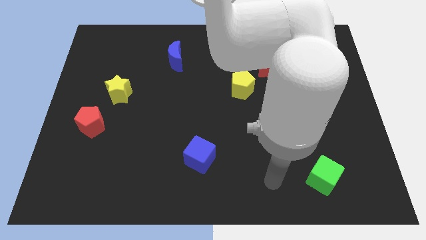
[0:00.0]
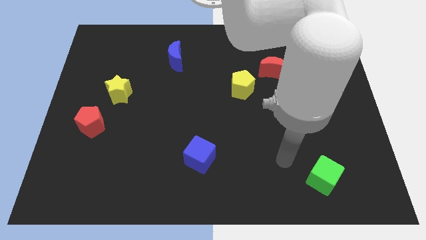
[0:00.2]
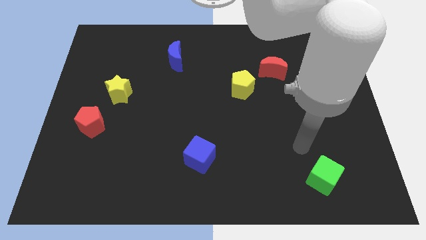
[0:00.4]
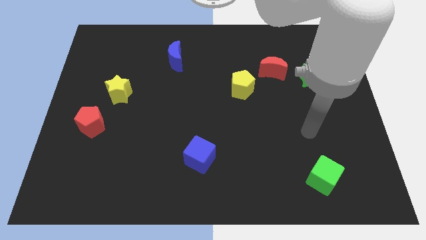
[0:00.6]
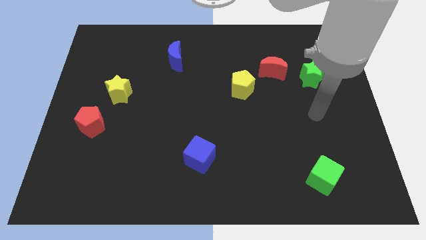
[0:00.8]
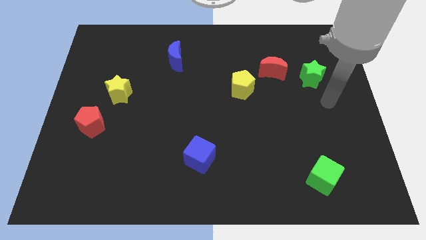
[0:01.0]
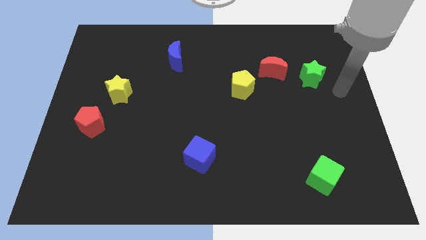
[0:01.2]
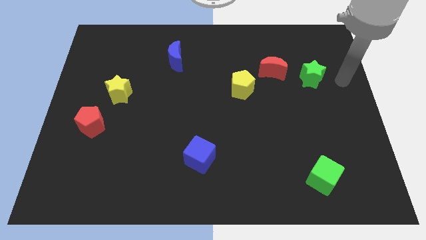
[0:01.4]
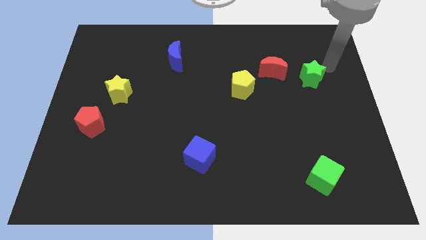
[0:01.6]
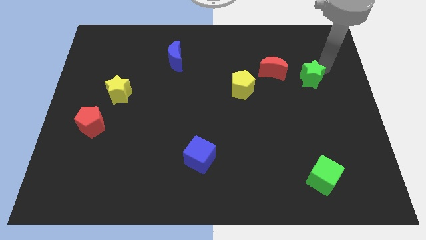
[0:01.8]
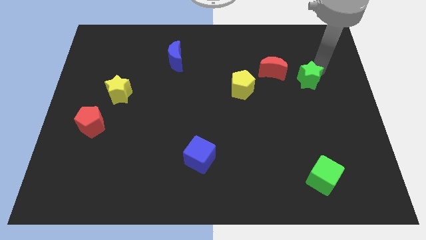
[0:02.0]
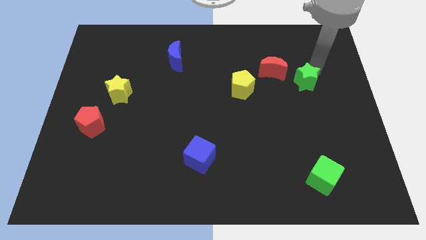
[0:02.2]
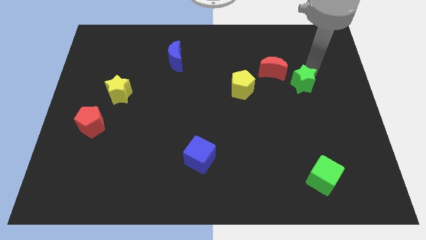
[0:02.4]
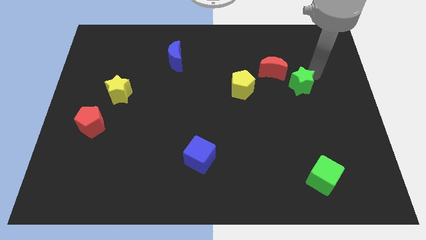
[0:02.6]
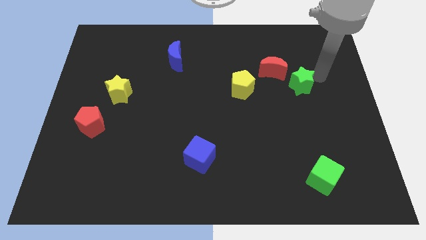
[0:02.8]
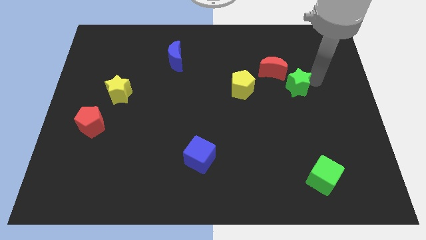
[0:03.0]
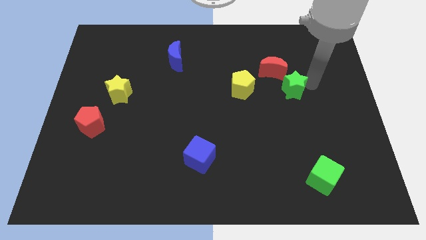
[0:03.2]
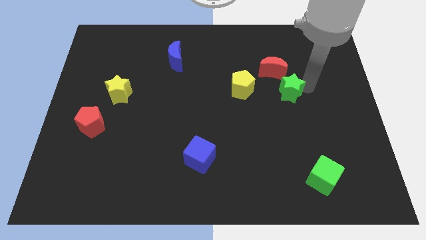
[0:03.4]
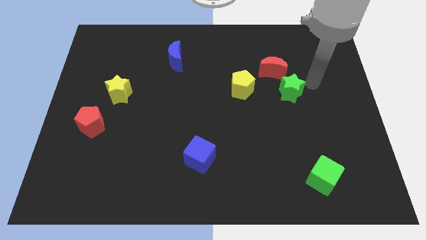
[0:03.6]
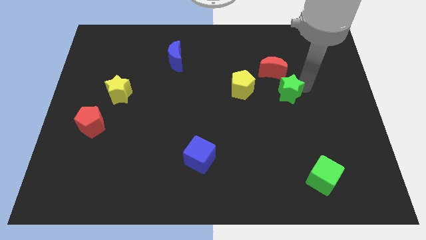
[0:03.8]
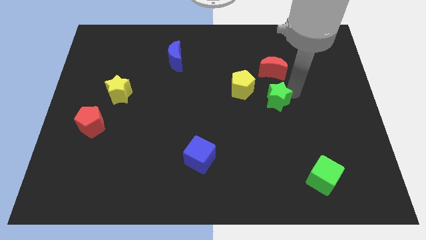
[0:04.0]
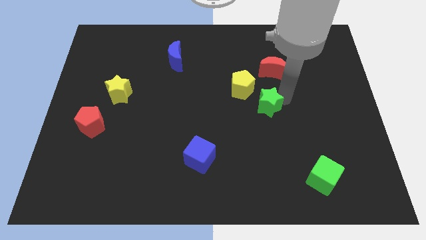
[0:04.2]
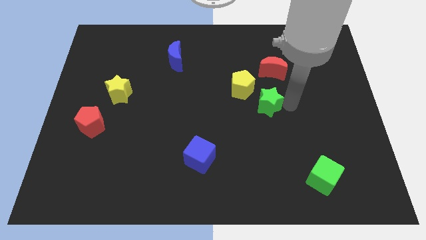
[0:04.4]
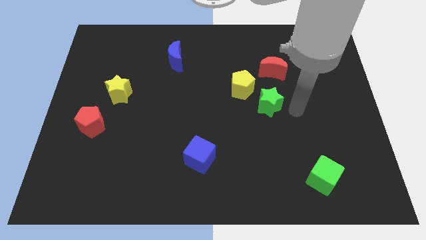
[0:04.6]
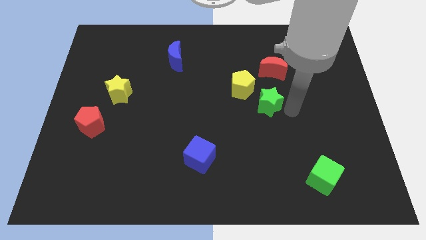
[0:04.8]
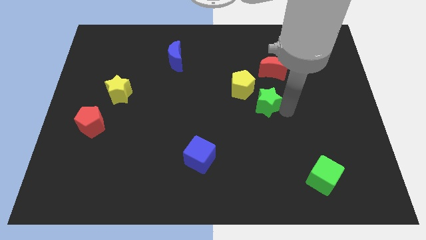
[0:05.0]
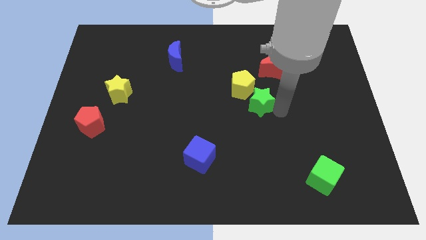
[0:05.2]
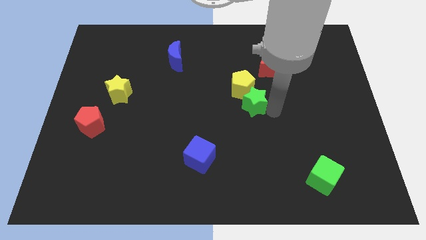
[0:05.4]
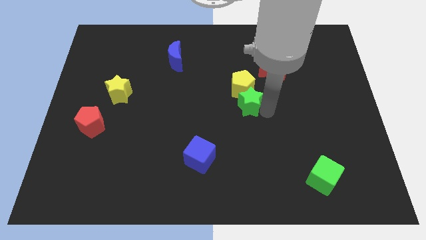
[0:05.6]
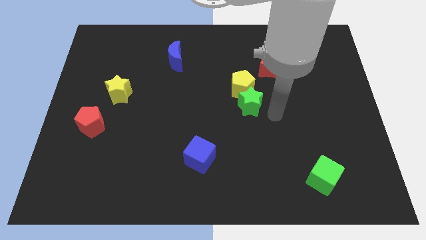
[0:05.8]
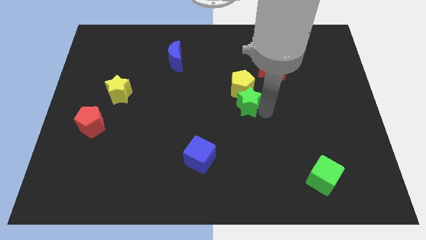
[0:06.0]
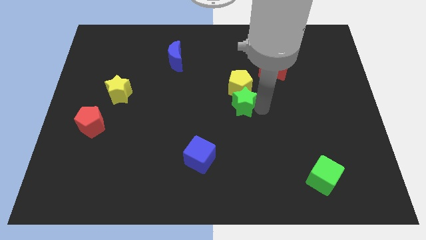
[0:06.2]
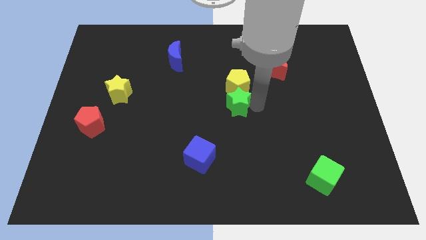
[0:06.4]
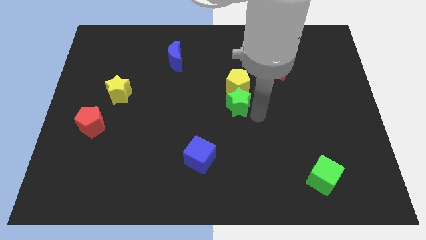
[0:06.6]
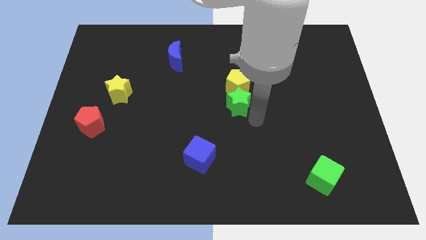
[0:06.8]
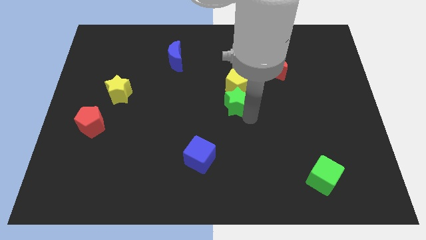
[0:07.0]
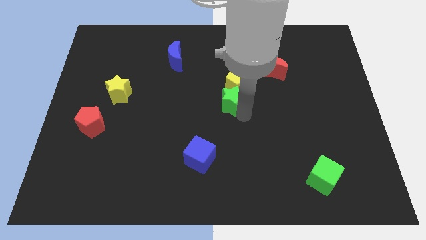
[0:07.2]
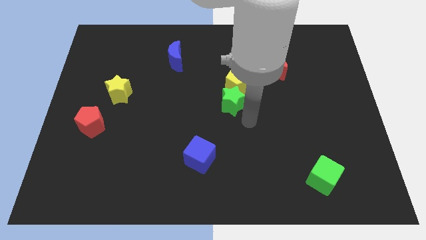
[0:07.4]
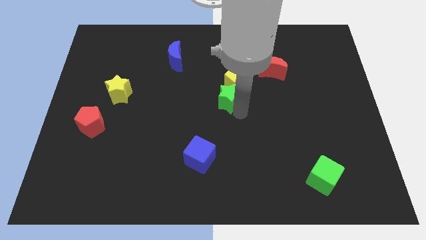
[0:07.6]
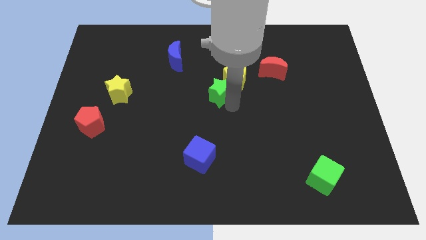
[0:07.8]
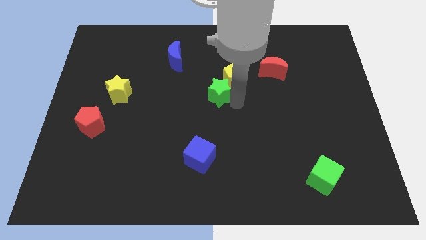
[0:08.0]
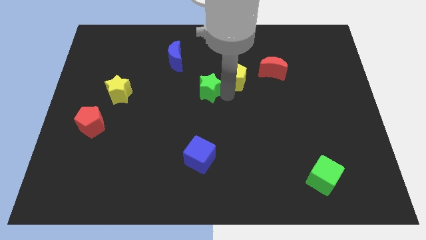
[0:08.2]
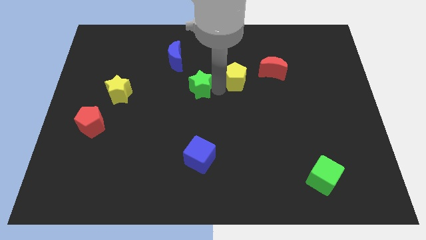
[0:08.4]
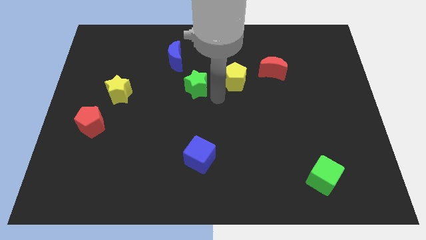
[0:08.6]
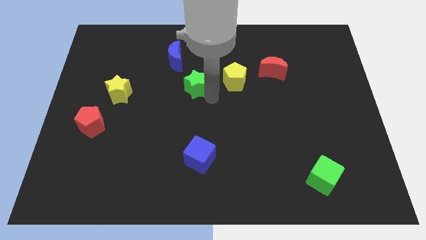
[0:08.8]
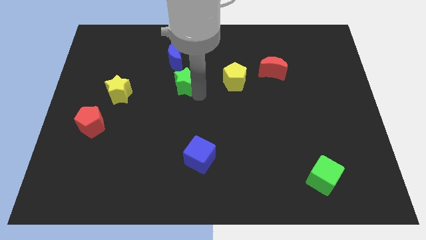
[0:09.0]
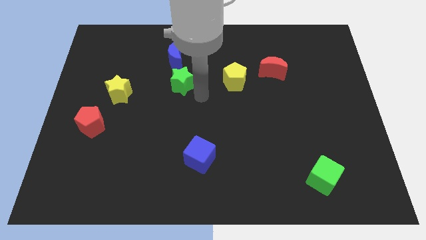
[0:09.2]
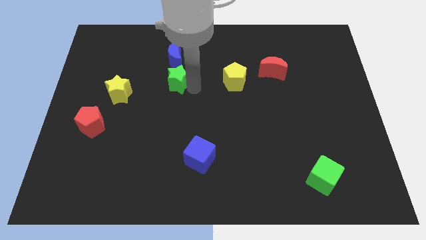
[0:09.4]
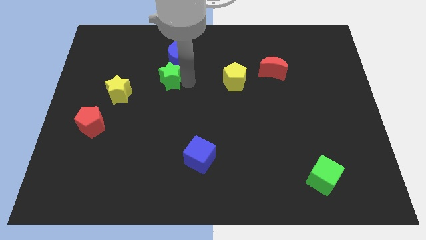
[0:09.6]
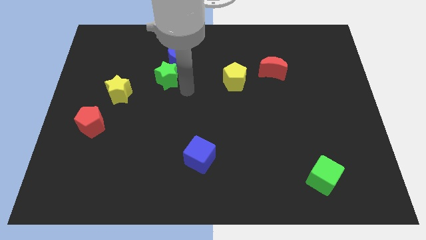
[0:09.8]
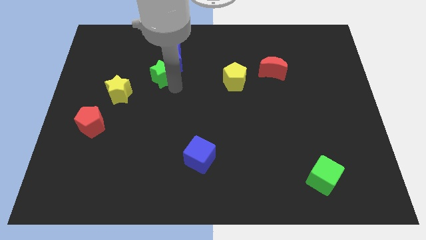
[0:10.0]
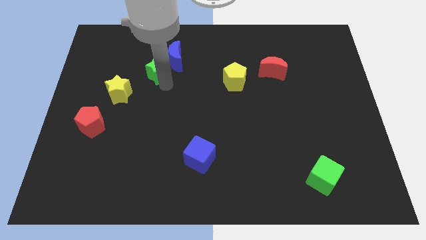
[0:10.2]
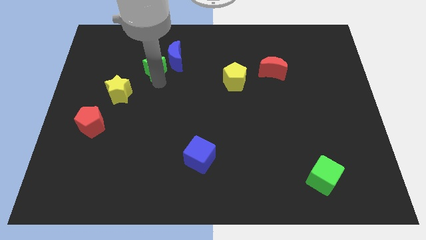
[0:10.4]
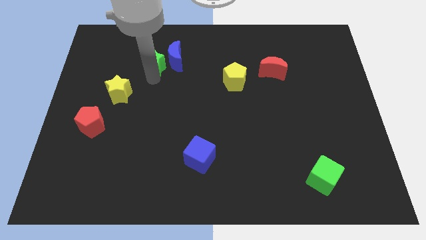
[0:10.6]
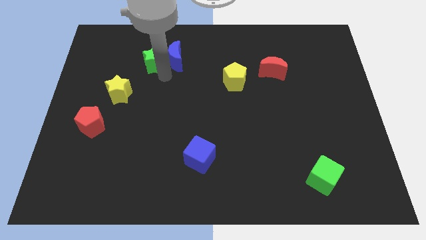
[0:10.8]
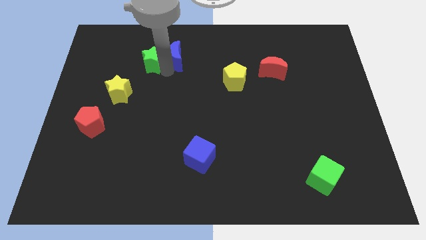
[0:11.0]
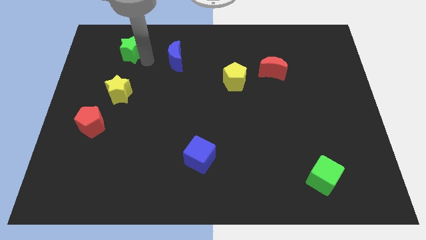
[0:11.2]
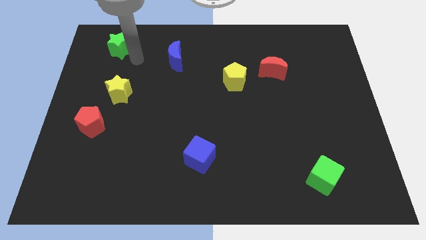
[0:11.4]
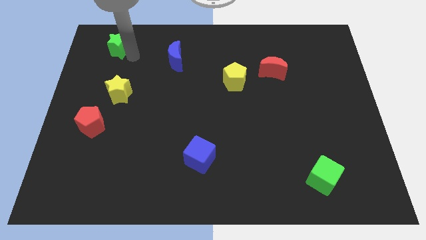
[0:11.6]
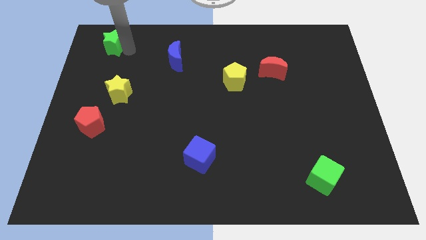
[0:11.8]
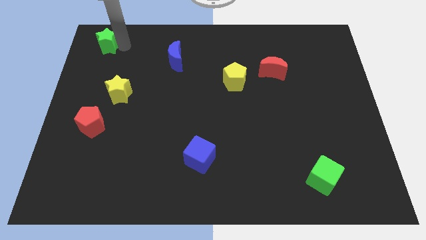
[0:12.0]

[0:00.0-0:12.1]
push the green star to the top left of the board
